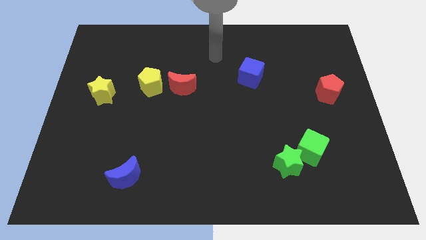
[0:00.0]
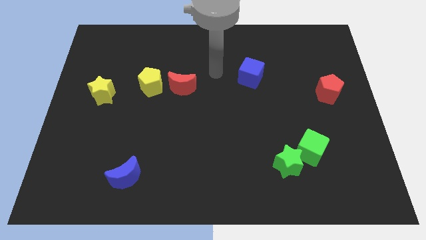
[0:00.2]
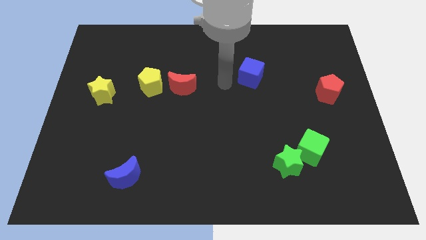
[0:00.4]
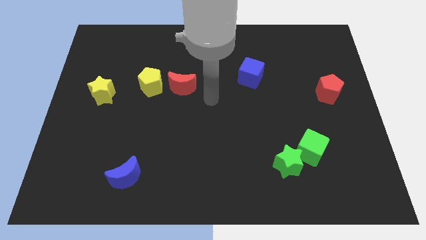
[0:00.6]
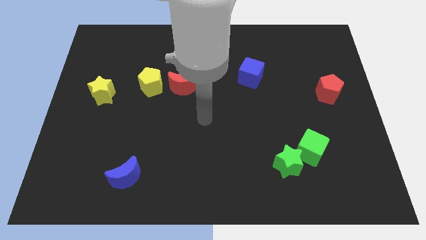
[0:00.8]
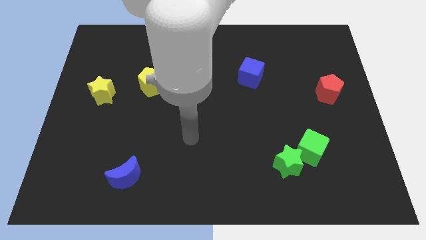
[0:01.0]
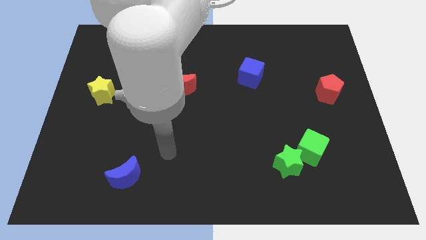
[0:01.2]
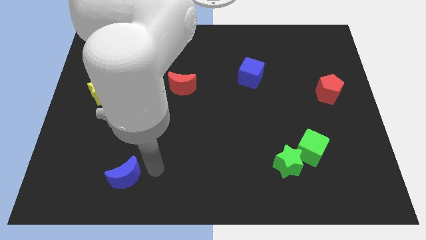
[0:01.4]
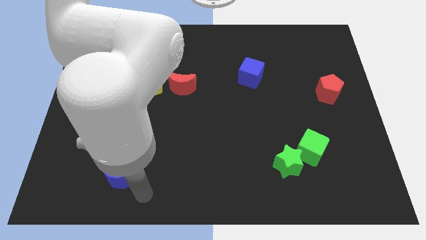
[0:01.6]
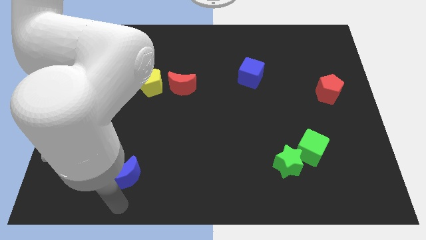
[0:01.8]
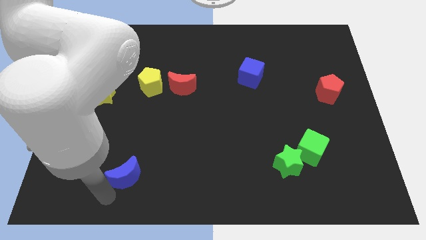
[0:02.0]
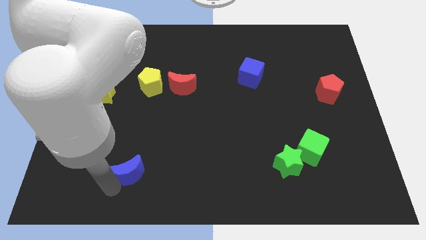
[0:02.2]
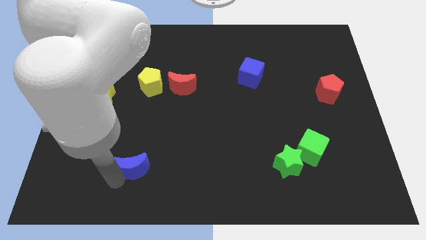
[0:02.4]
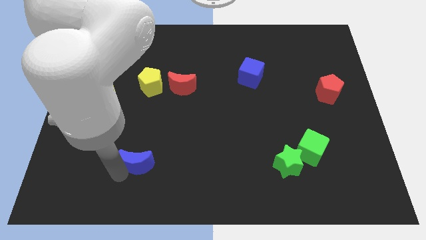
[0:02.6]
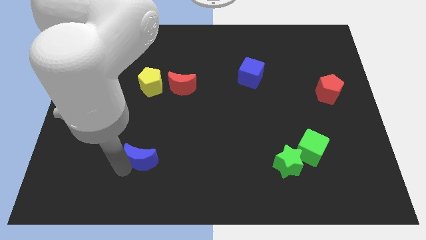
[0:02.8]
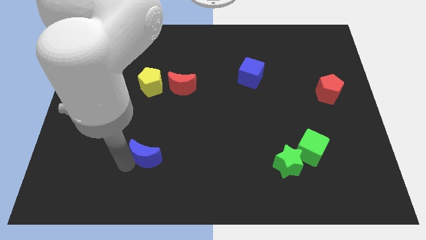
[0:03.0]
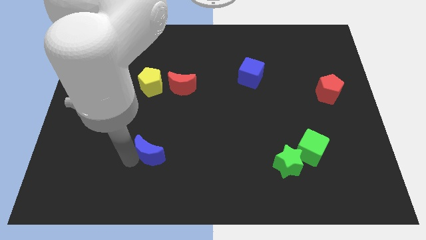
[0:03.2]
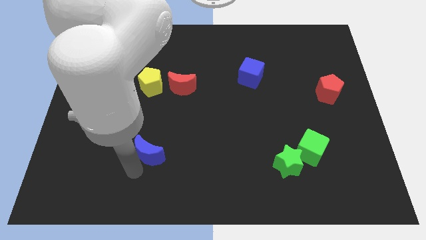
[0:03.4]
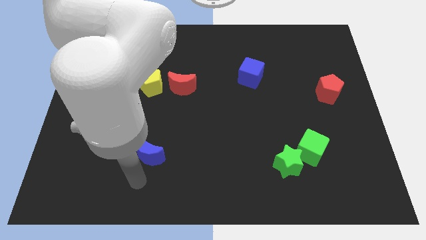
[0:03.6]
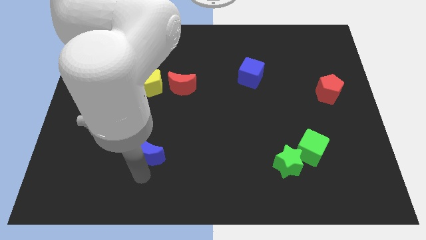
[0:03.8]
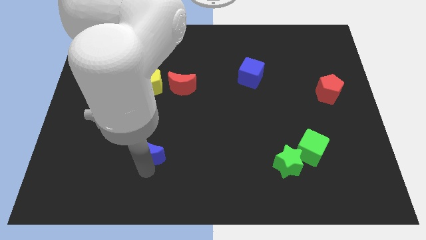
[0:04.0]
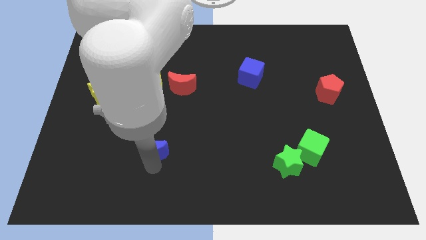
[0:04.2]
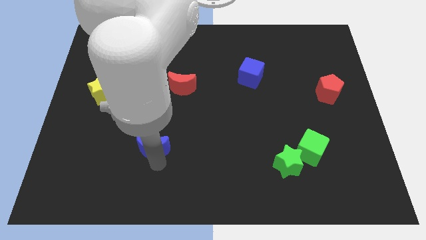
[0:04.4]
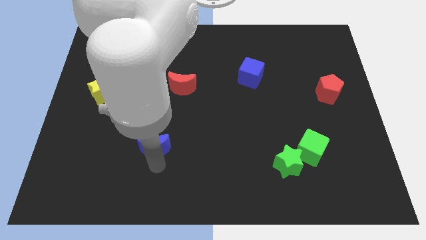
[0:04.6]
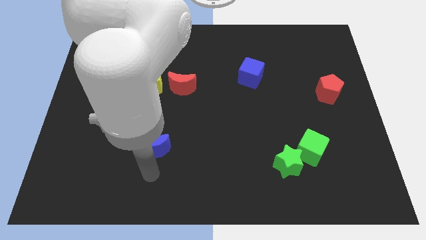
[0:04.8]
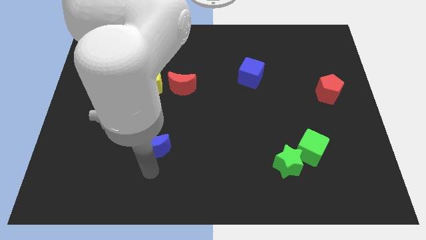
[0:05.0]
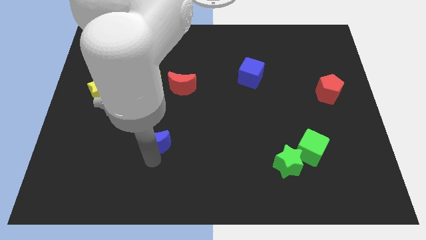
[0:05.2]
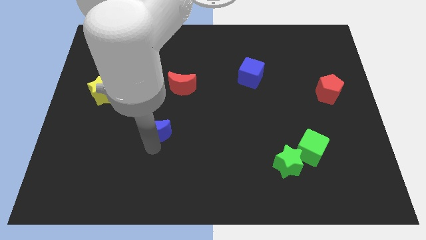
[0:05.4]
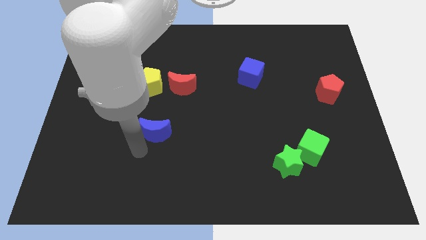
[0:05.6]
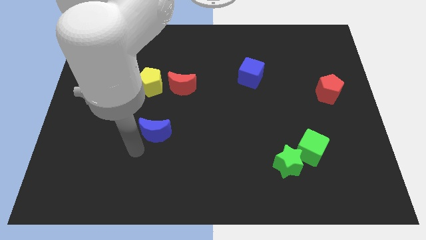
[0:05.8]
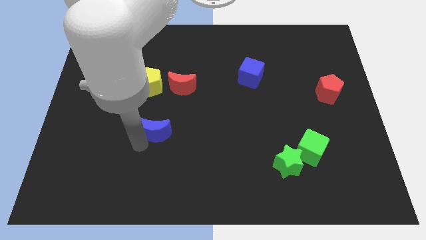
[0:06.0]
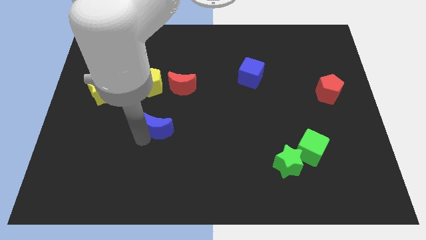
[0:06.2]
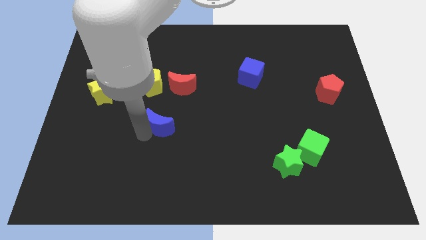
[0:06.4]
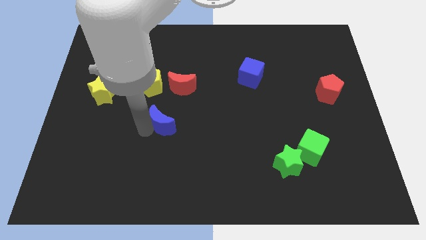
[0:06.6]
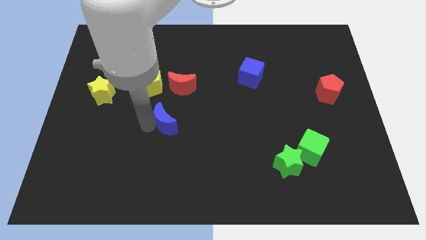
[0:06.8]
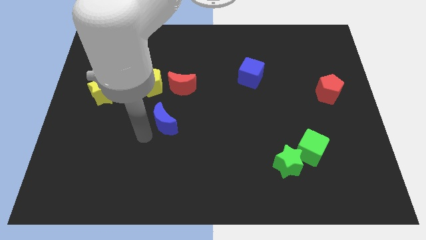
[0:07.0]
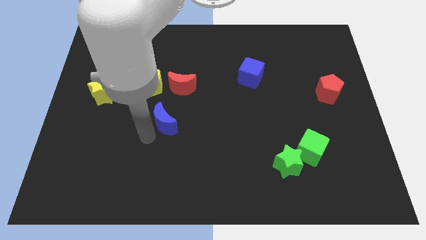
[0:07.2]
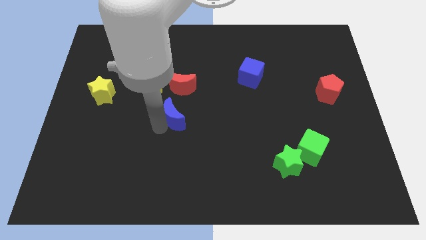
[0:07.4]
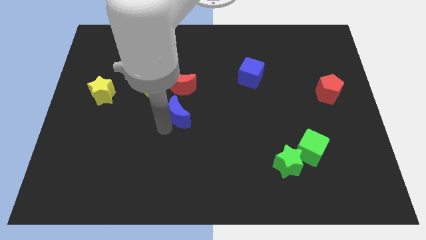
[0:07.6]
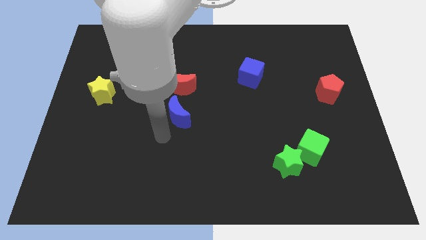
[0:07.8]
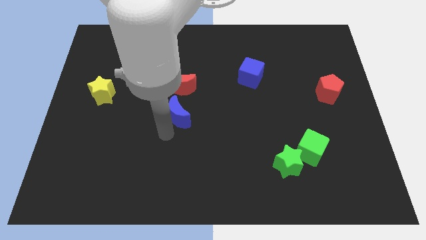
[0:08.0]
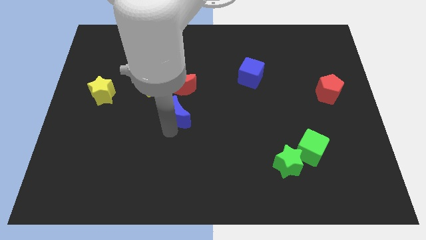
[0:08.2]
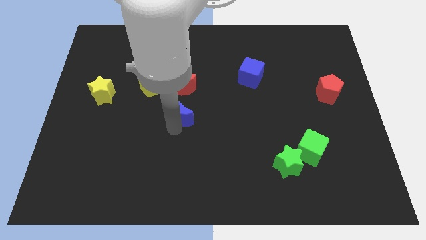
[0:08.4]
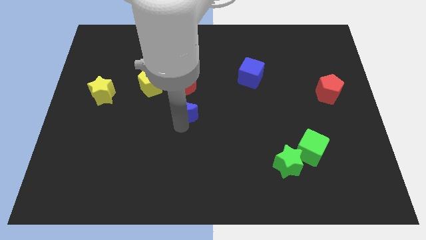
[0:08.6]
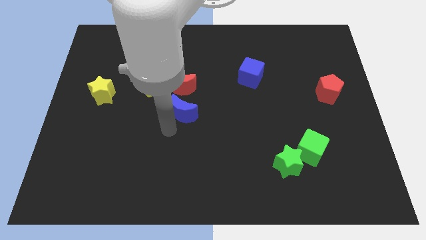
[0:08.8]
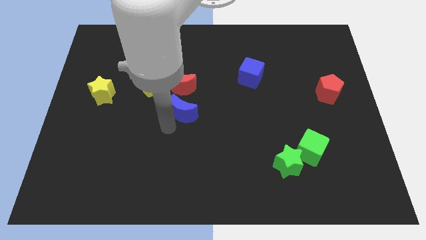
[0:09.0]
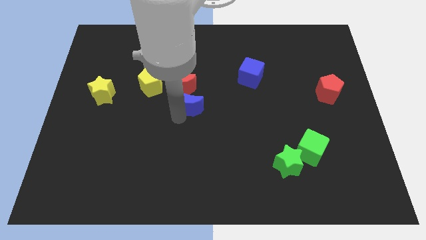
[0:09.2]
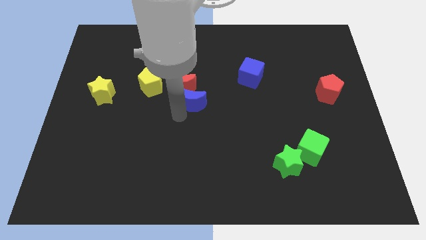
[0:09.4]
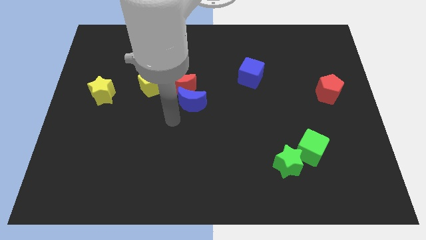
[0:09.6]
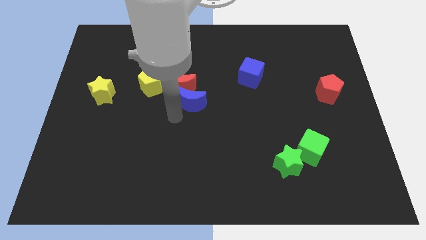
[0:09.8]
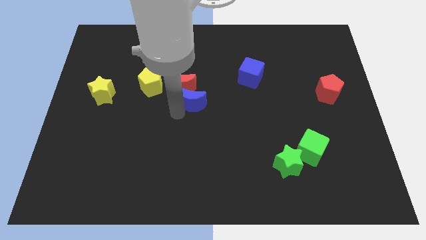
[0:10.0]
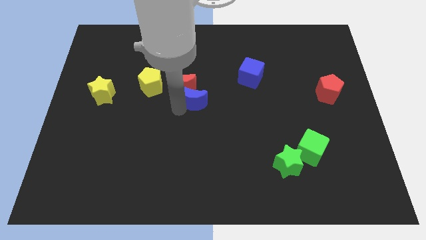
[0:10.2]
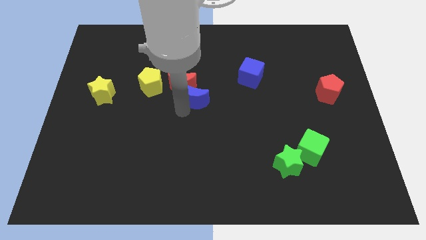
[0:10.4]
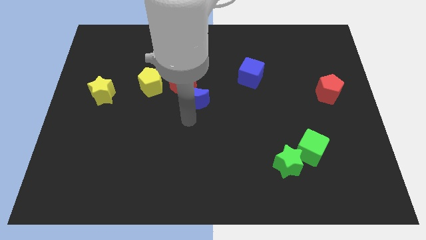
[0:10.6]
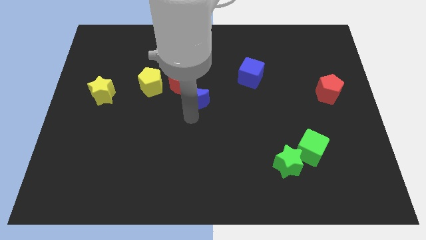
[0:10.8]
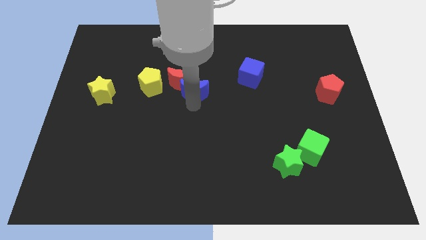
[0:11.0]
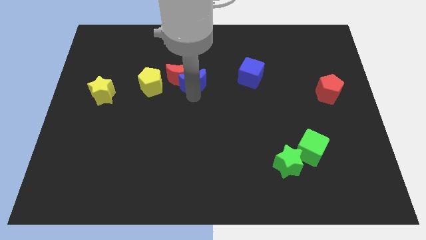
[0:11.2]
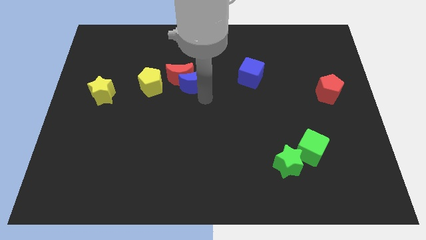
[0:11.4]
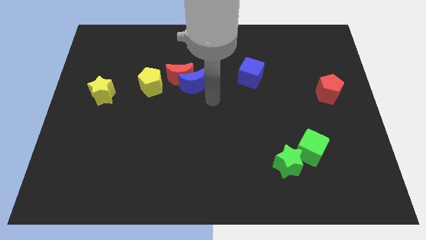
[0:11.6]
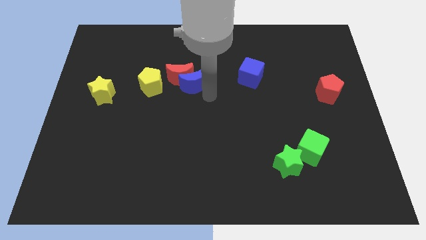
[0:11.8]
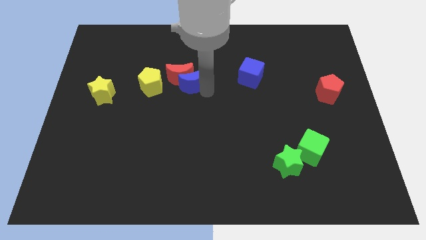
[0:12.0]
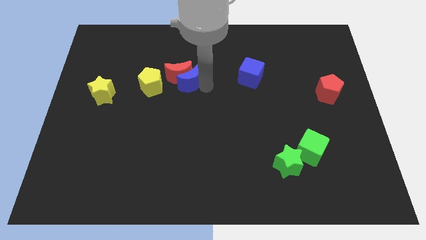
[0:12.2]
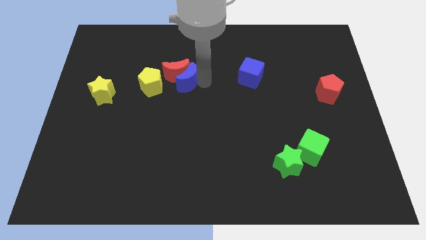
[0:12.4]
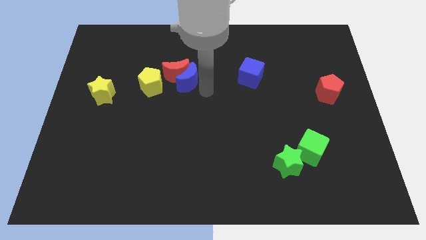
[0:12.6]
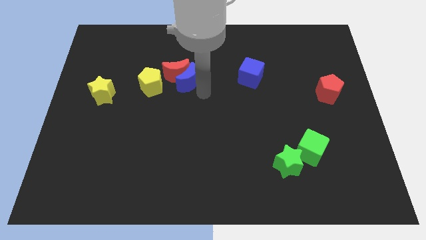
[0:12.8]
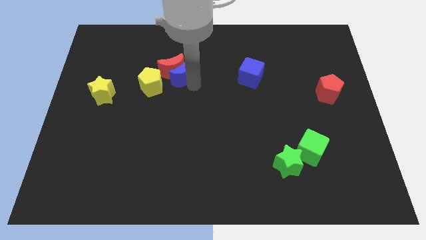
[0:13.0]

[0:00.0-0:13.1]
put the blue moon to the top right of the yellow pentagon

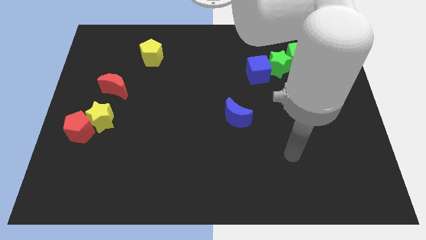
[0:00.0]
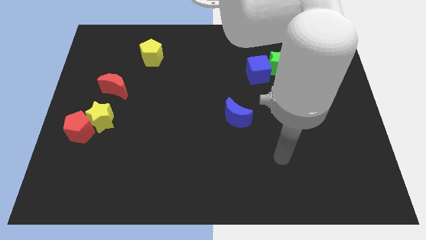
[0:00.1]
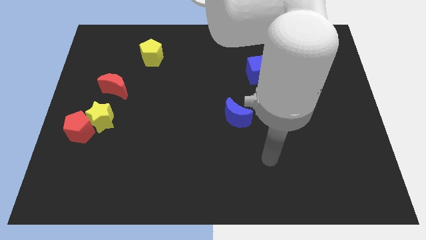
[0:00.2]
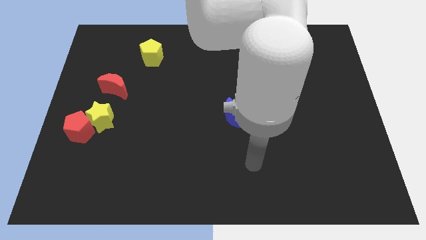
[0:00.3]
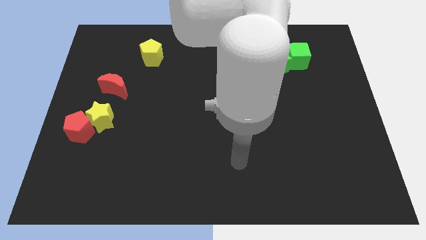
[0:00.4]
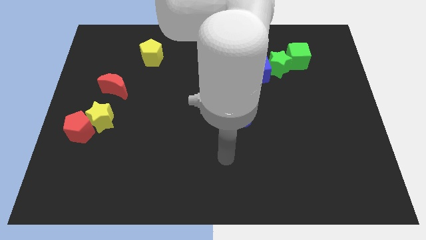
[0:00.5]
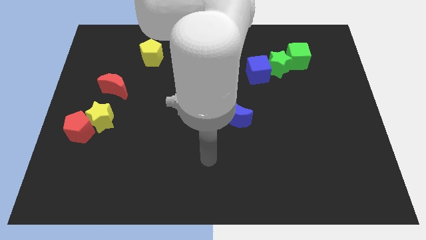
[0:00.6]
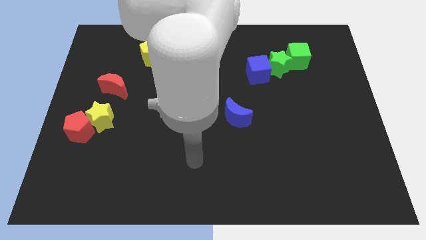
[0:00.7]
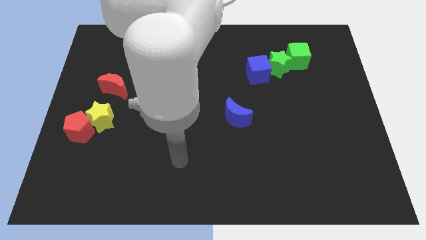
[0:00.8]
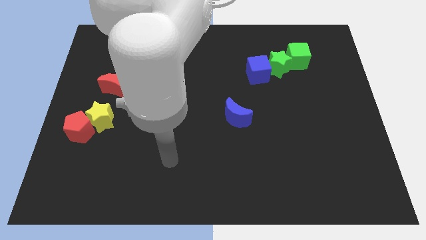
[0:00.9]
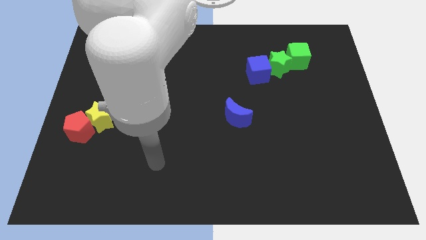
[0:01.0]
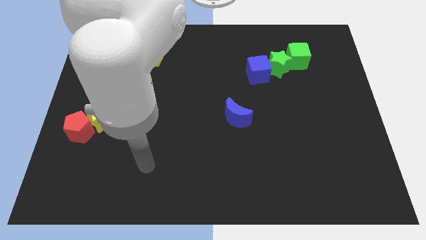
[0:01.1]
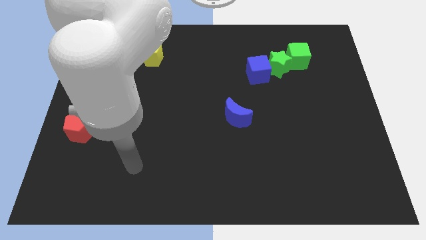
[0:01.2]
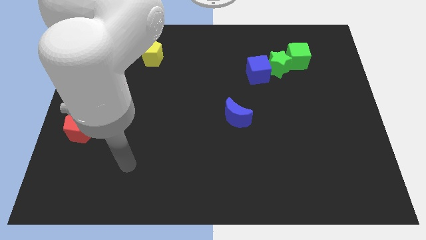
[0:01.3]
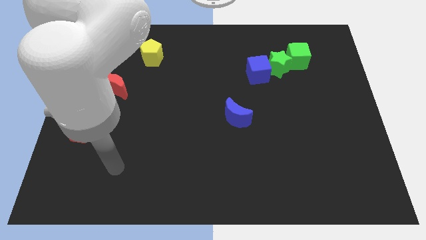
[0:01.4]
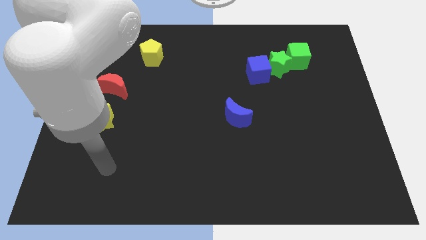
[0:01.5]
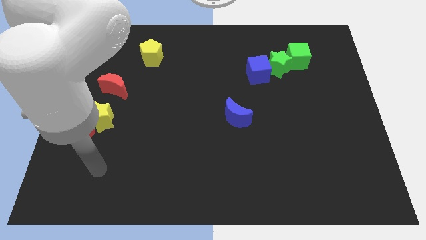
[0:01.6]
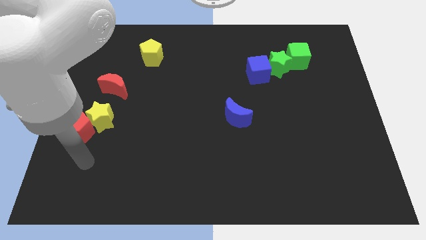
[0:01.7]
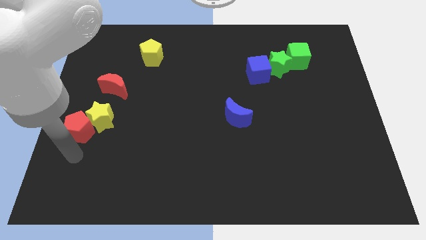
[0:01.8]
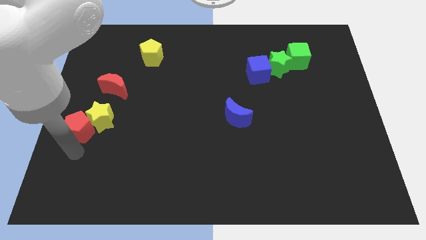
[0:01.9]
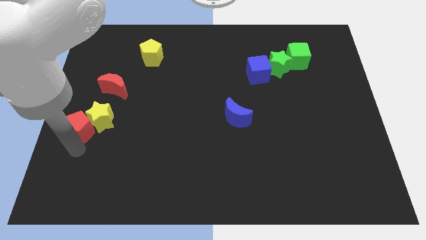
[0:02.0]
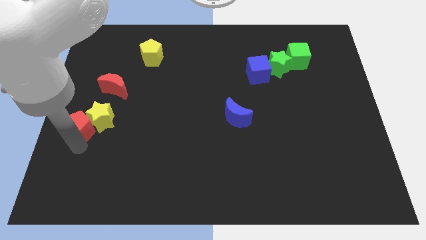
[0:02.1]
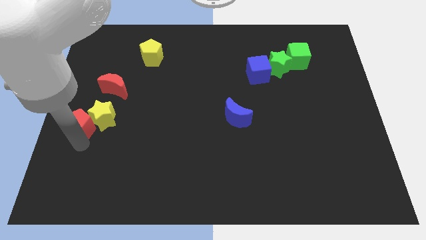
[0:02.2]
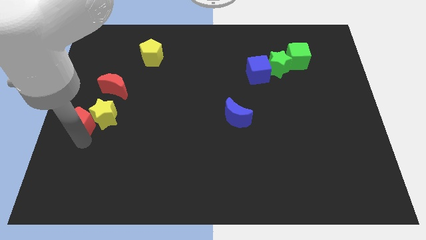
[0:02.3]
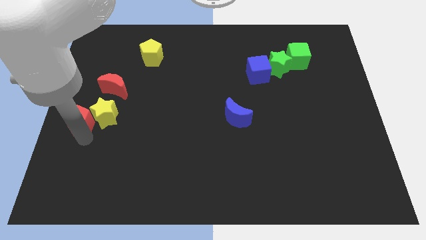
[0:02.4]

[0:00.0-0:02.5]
push the red pentagon diagonally down and to the left of the red moon
